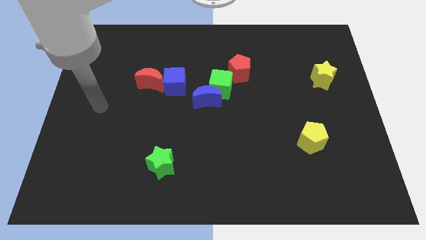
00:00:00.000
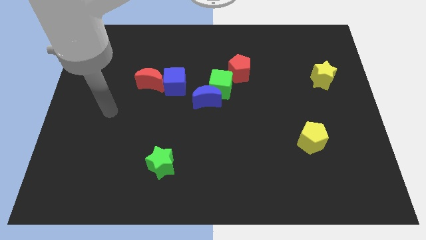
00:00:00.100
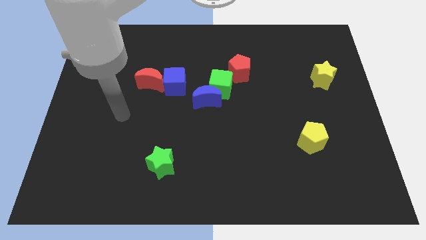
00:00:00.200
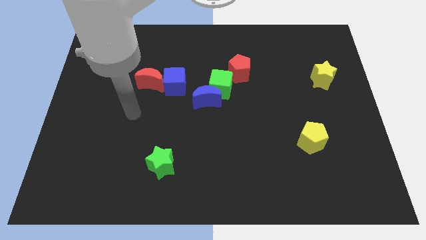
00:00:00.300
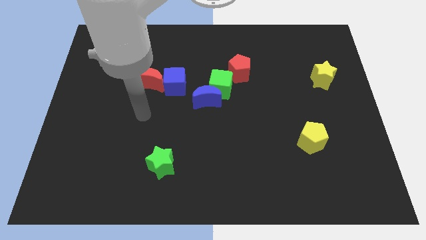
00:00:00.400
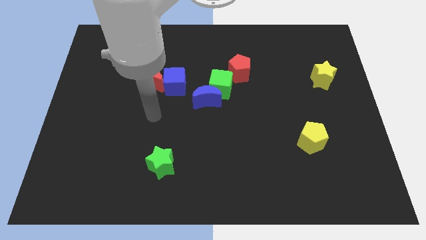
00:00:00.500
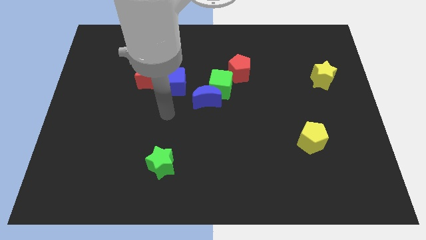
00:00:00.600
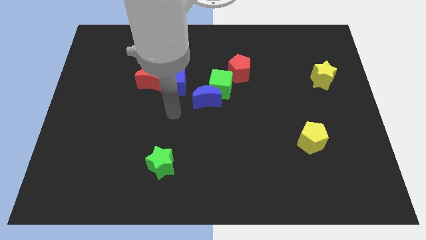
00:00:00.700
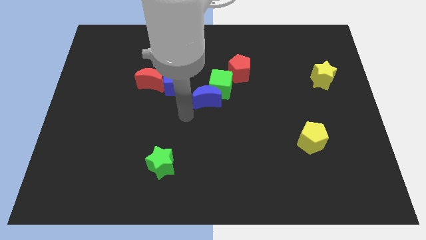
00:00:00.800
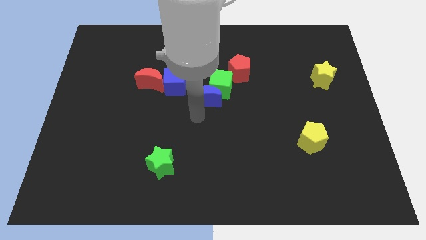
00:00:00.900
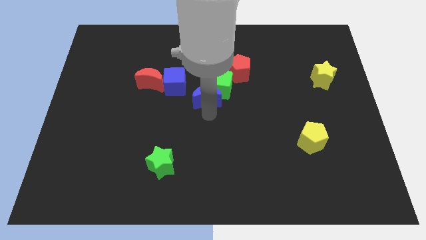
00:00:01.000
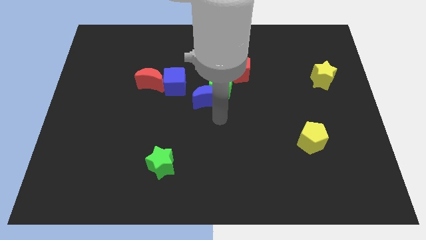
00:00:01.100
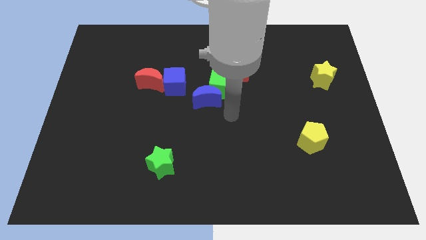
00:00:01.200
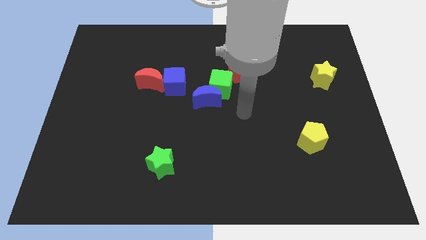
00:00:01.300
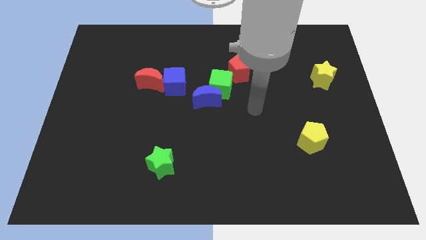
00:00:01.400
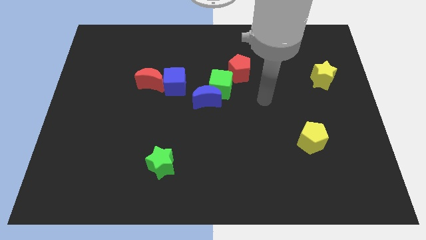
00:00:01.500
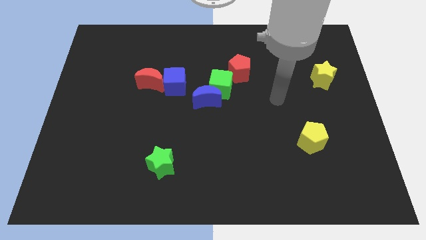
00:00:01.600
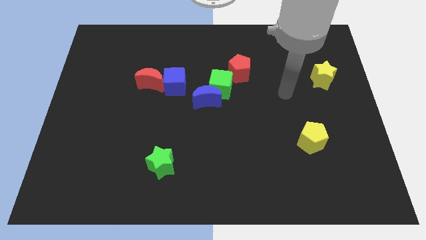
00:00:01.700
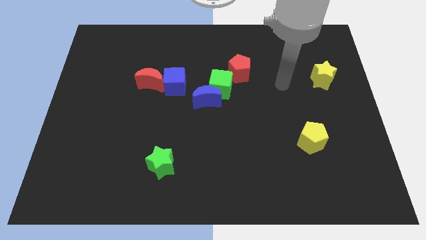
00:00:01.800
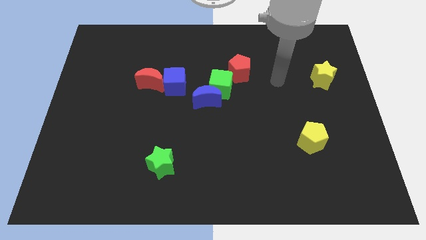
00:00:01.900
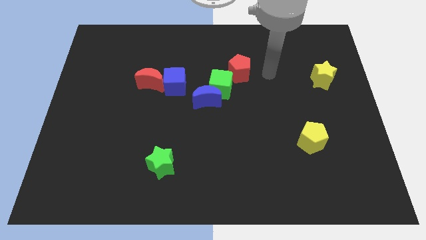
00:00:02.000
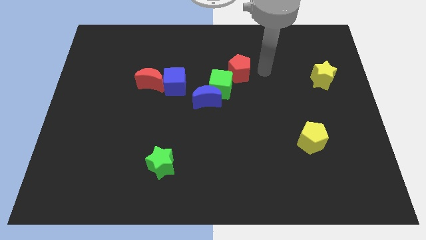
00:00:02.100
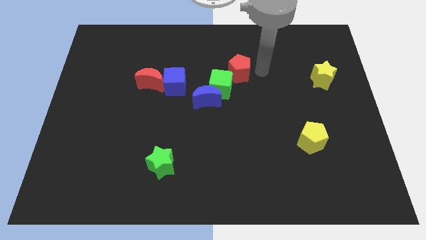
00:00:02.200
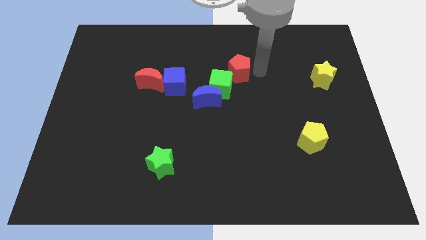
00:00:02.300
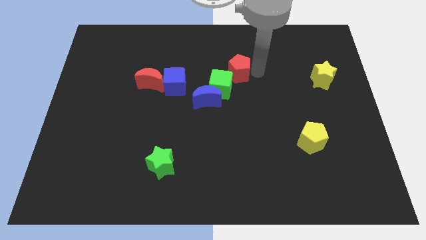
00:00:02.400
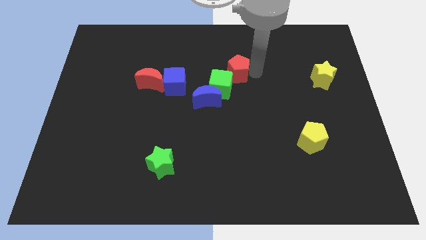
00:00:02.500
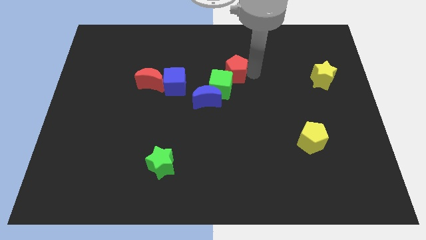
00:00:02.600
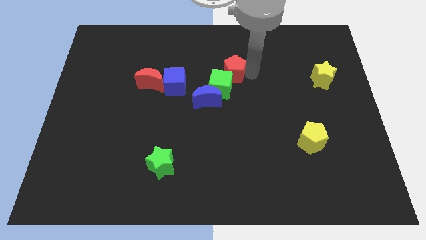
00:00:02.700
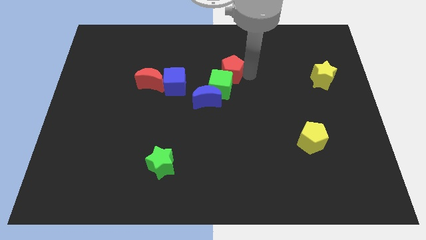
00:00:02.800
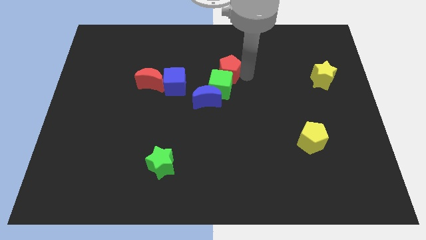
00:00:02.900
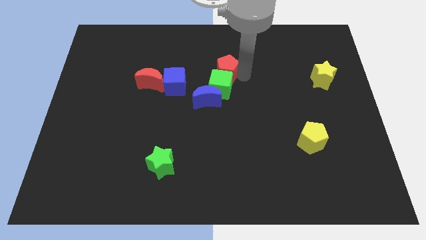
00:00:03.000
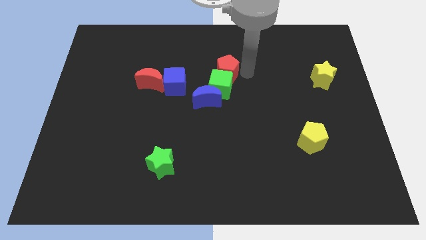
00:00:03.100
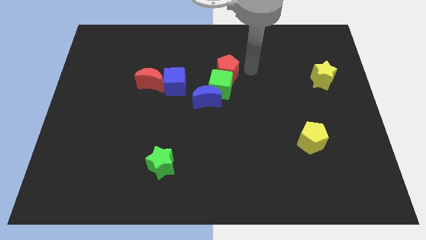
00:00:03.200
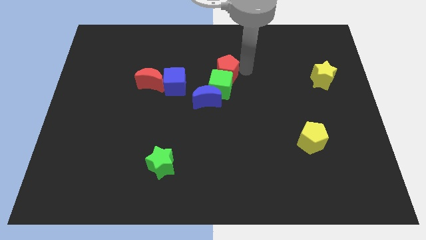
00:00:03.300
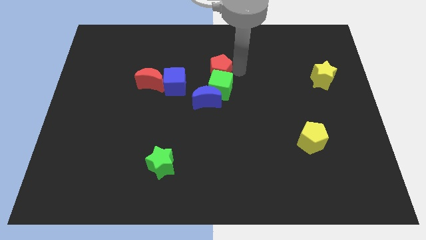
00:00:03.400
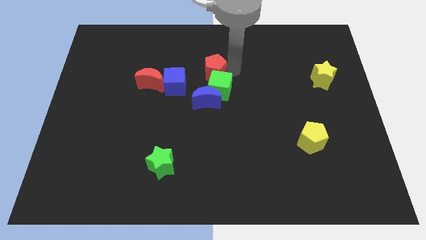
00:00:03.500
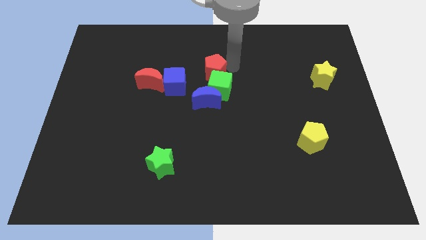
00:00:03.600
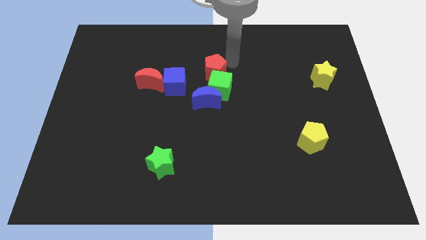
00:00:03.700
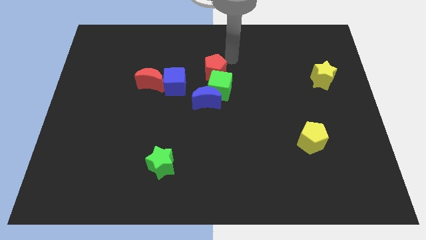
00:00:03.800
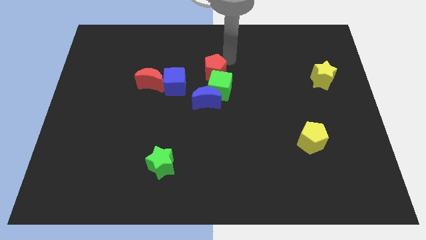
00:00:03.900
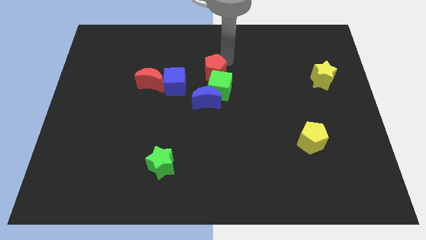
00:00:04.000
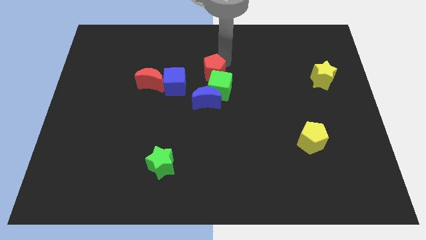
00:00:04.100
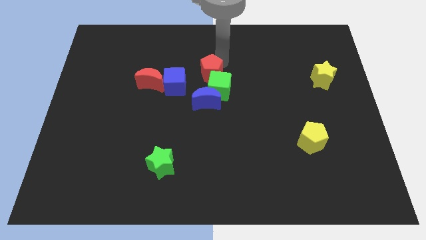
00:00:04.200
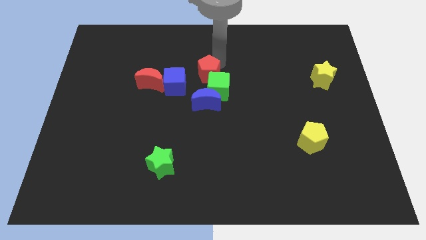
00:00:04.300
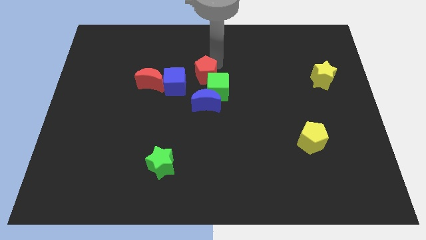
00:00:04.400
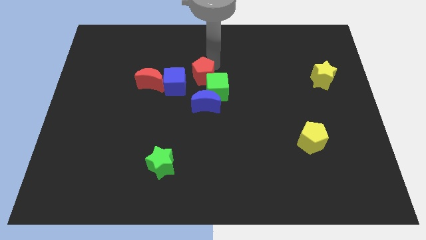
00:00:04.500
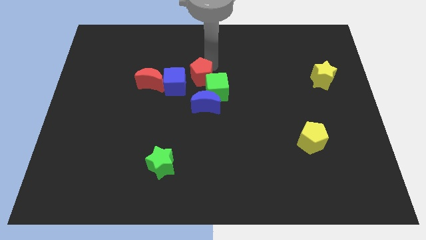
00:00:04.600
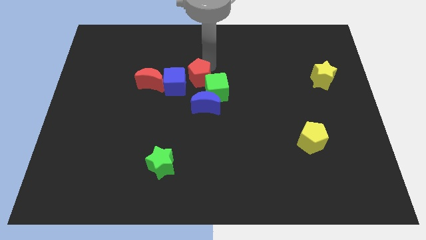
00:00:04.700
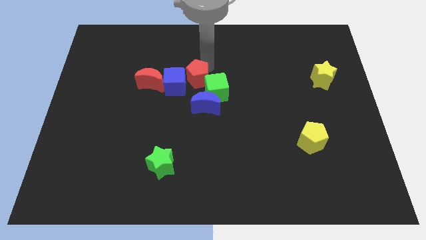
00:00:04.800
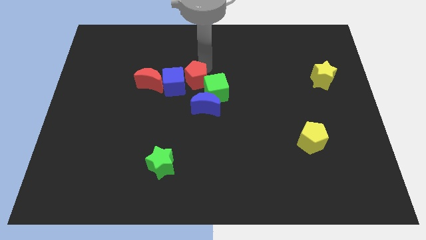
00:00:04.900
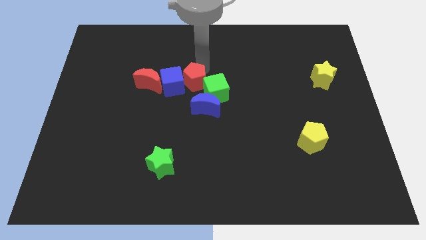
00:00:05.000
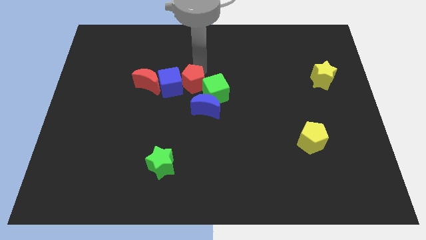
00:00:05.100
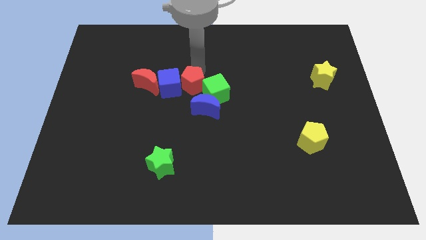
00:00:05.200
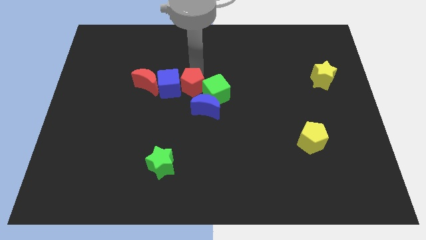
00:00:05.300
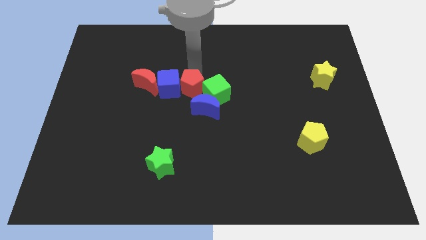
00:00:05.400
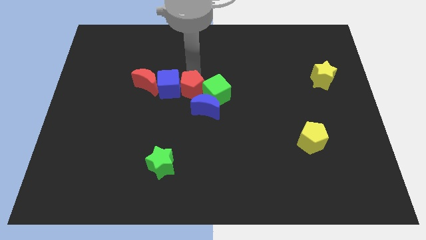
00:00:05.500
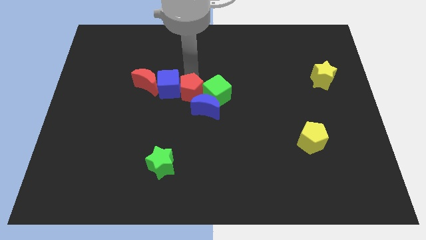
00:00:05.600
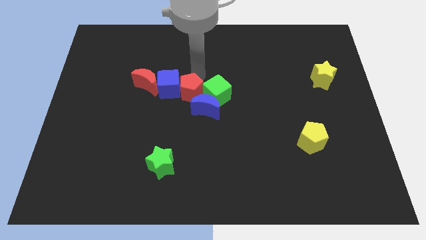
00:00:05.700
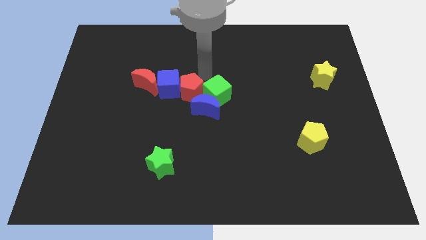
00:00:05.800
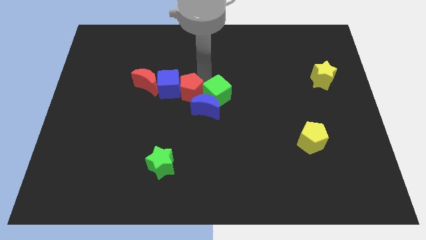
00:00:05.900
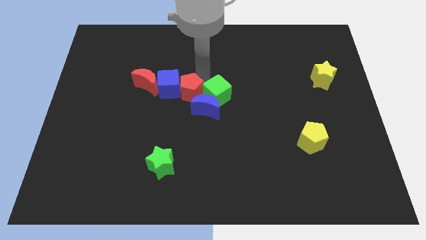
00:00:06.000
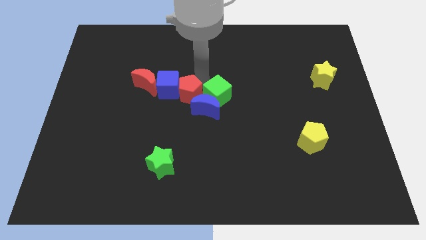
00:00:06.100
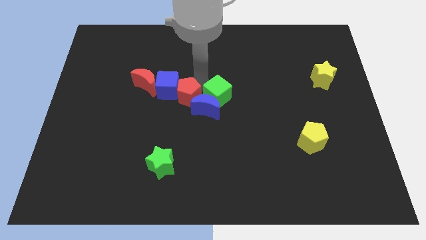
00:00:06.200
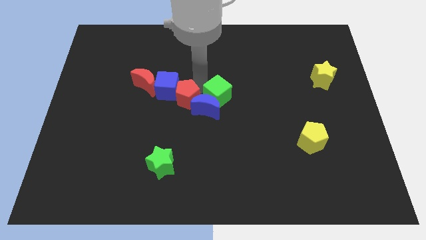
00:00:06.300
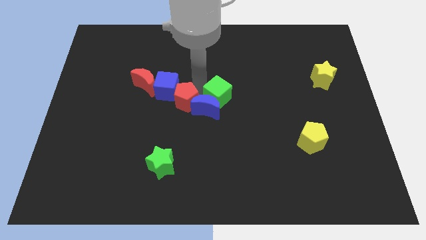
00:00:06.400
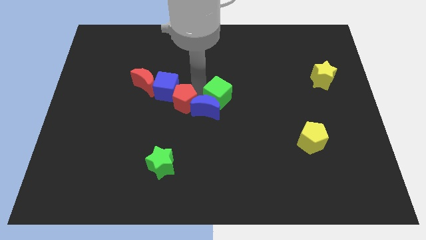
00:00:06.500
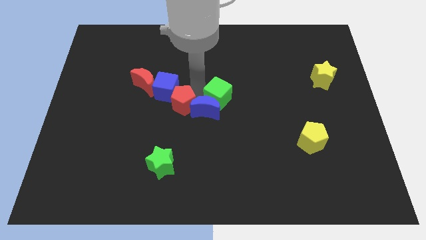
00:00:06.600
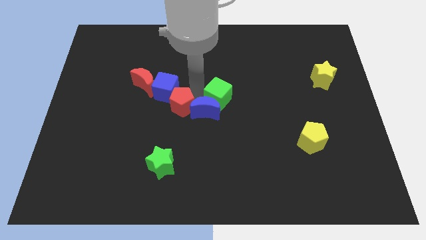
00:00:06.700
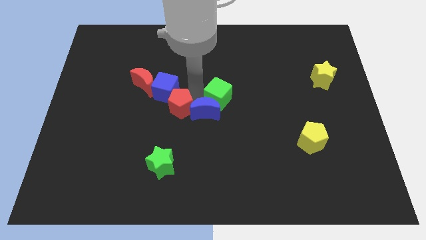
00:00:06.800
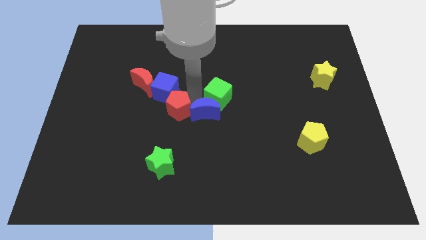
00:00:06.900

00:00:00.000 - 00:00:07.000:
move the red pentagon to the top side of the green star

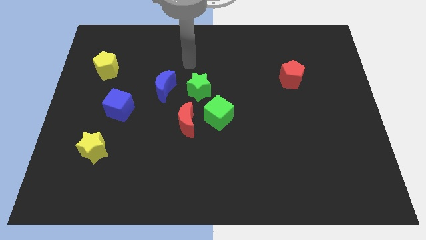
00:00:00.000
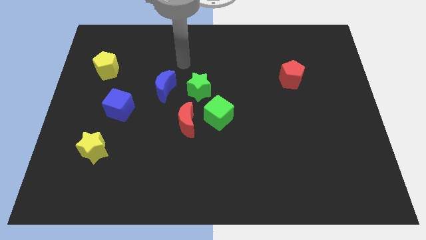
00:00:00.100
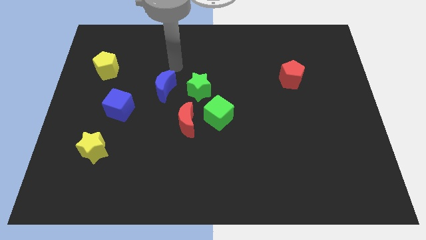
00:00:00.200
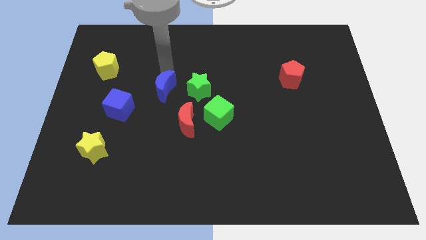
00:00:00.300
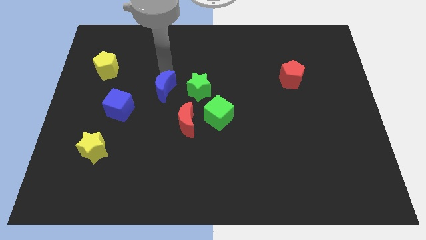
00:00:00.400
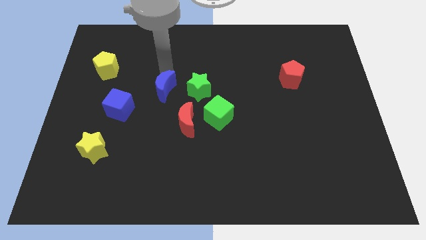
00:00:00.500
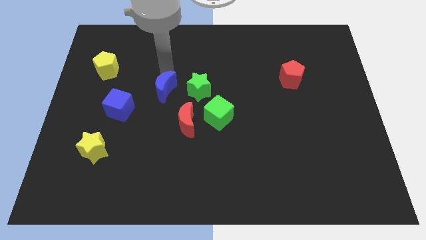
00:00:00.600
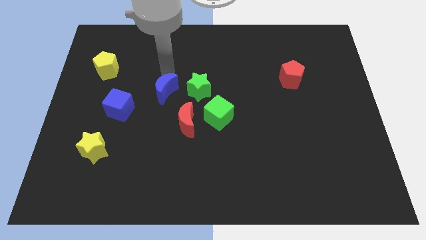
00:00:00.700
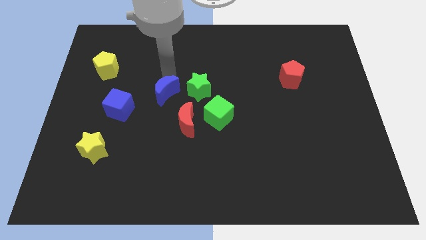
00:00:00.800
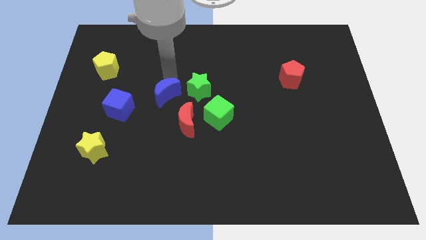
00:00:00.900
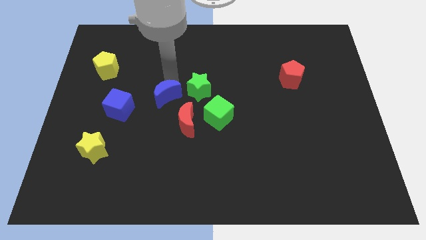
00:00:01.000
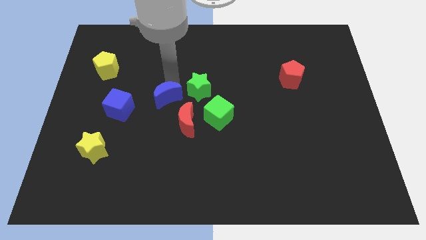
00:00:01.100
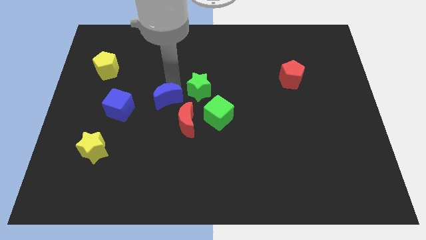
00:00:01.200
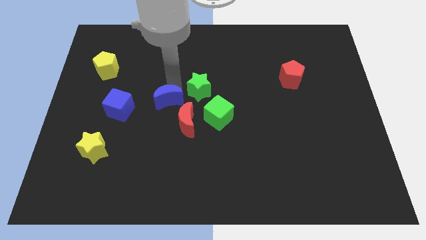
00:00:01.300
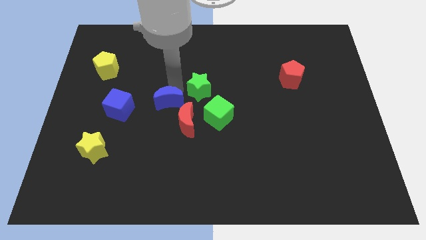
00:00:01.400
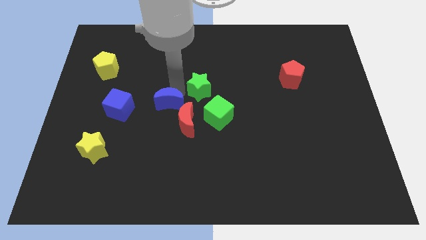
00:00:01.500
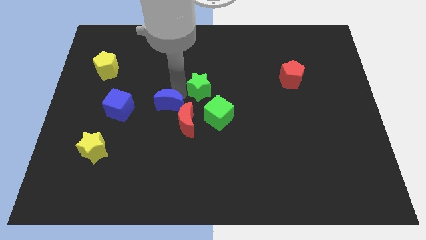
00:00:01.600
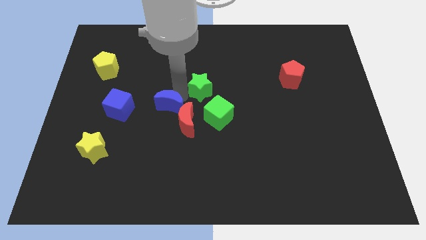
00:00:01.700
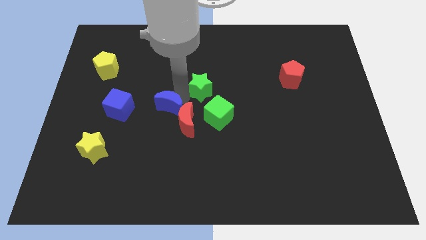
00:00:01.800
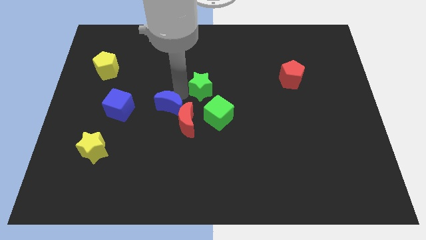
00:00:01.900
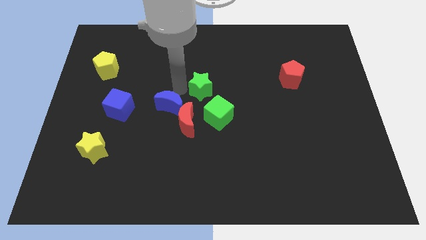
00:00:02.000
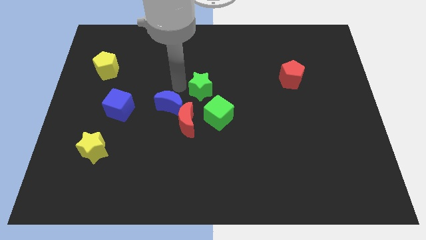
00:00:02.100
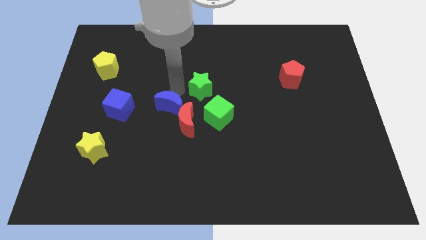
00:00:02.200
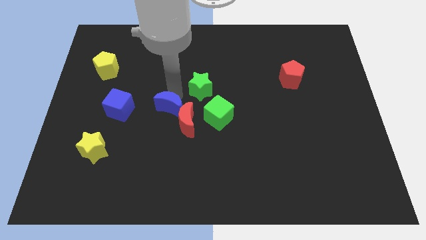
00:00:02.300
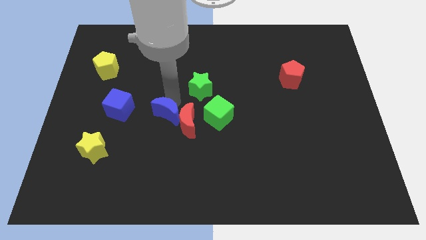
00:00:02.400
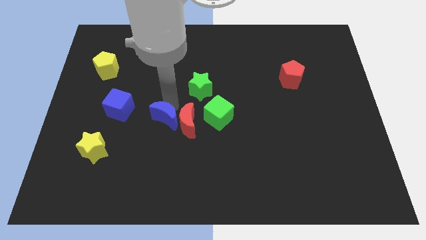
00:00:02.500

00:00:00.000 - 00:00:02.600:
move the blue moon to the bottom left of the red moon
